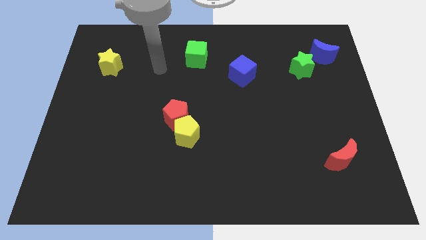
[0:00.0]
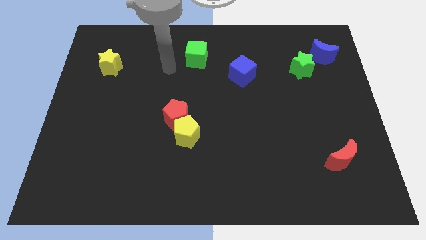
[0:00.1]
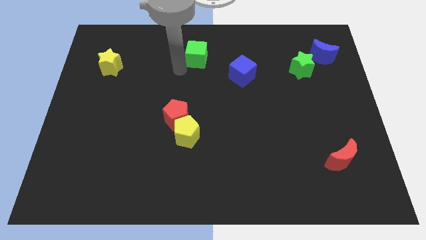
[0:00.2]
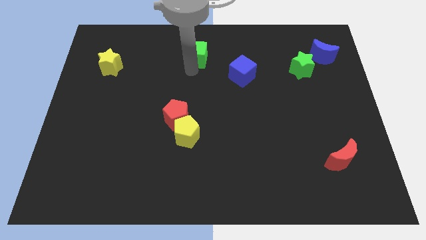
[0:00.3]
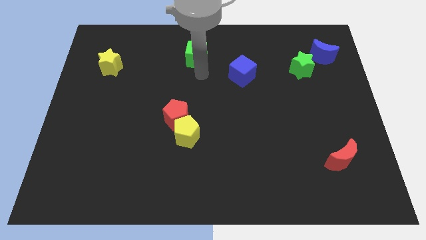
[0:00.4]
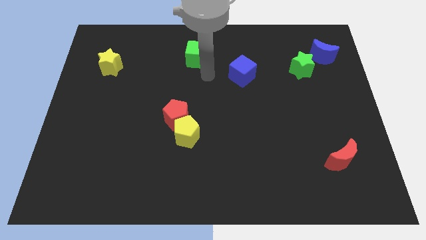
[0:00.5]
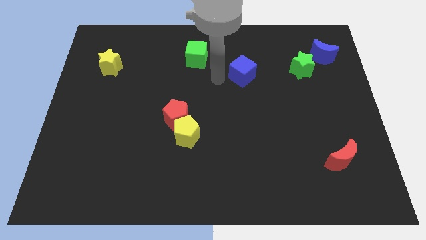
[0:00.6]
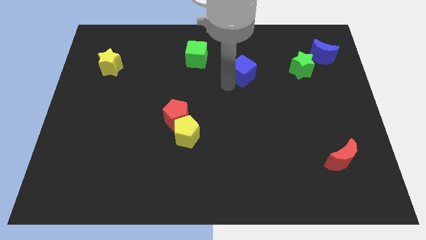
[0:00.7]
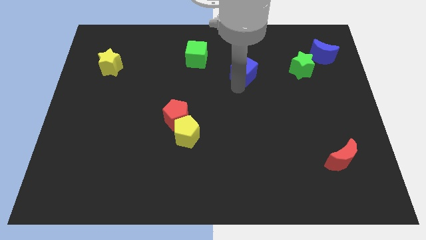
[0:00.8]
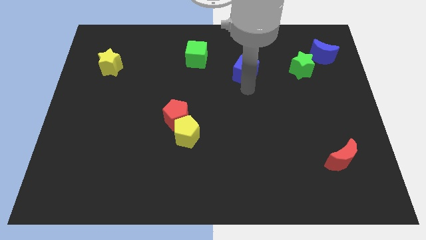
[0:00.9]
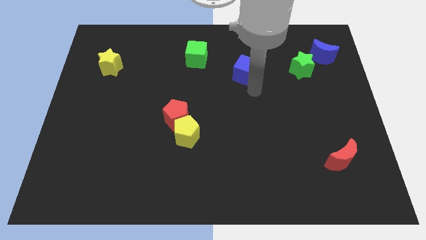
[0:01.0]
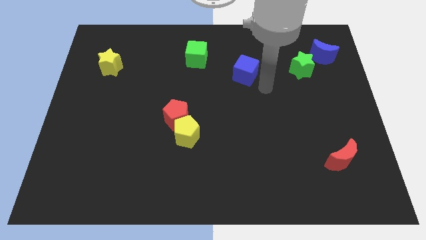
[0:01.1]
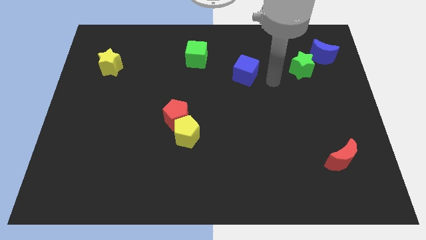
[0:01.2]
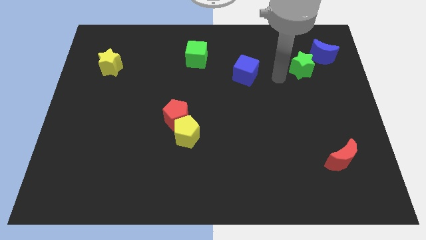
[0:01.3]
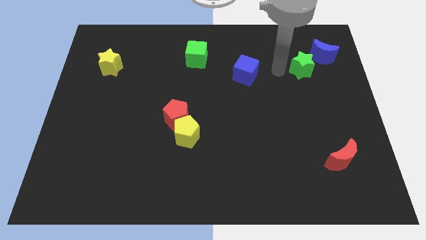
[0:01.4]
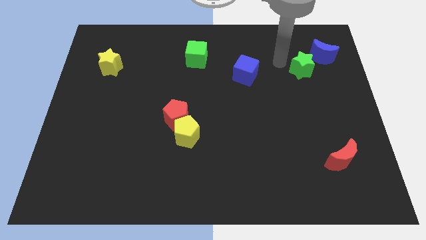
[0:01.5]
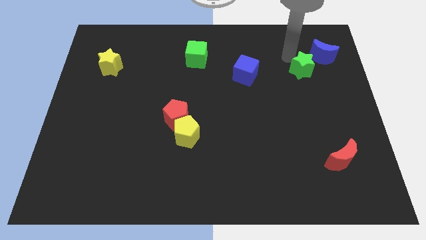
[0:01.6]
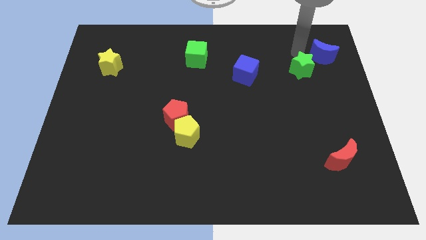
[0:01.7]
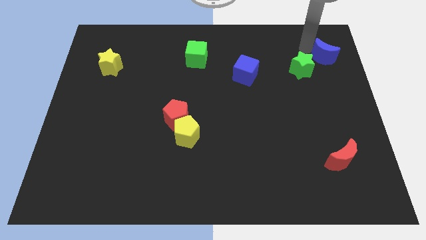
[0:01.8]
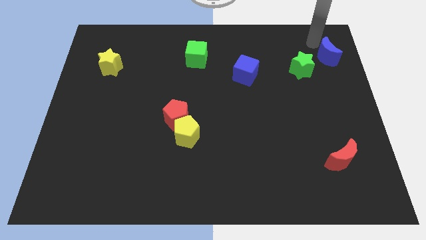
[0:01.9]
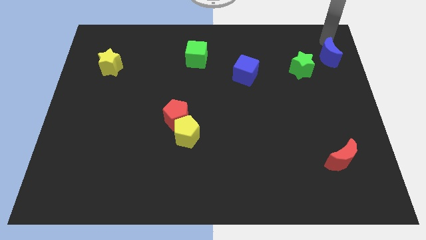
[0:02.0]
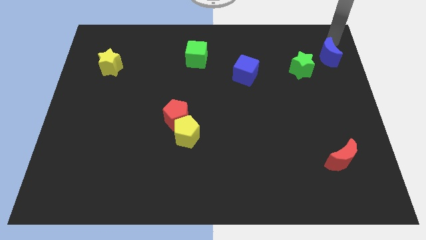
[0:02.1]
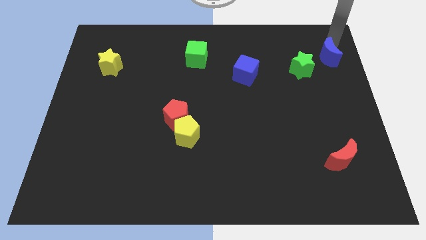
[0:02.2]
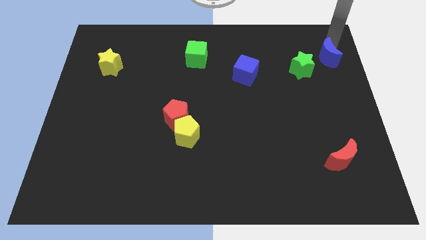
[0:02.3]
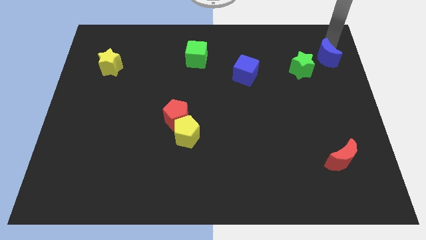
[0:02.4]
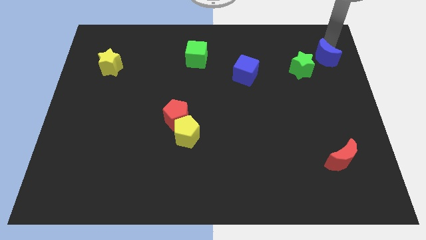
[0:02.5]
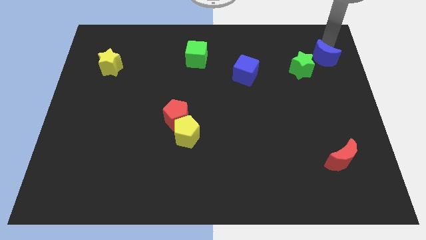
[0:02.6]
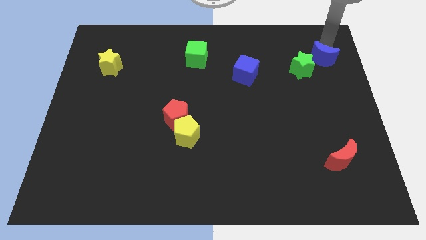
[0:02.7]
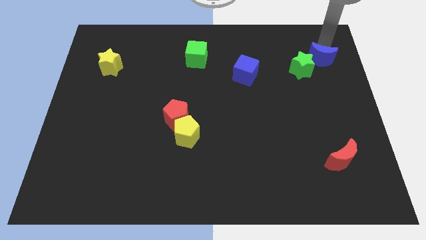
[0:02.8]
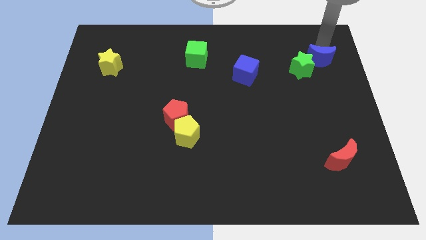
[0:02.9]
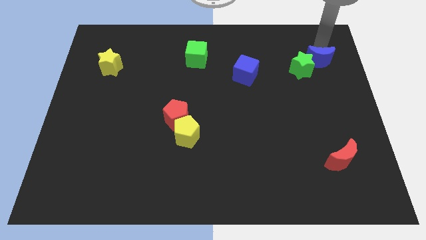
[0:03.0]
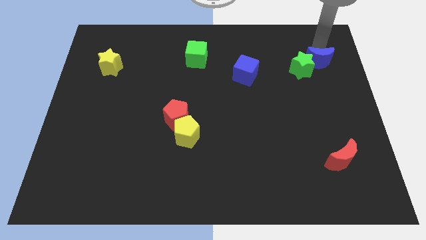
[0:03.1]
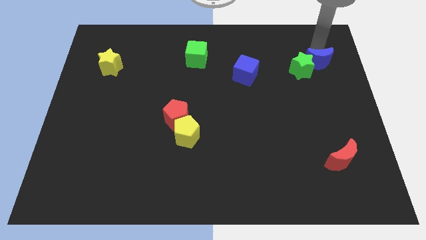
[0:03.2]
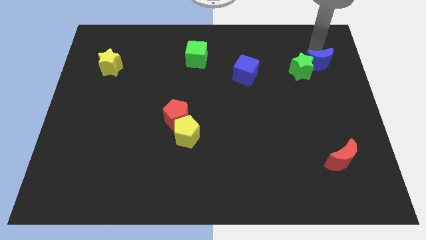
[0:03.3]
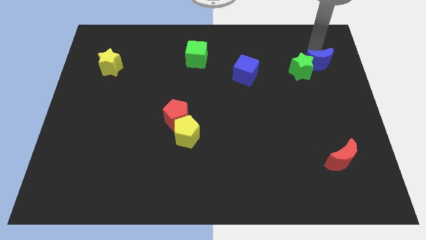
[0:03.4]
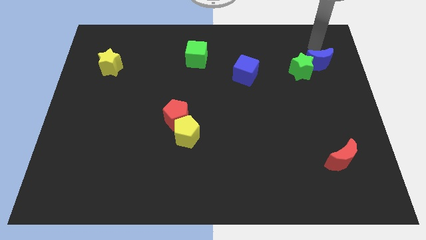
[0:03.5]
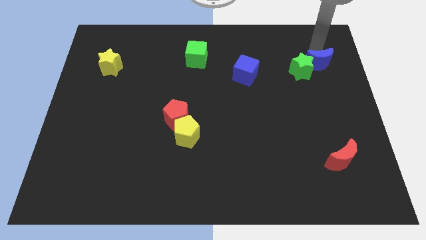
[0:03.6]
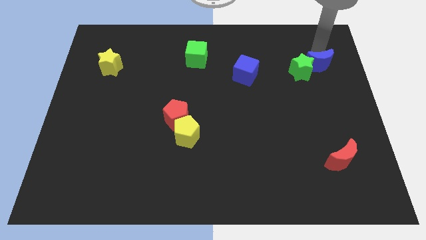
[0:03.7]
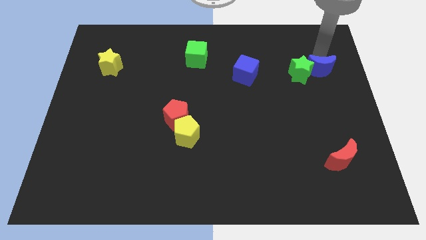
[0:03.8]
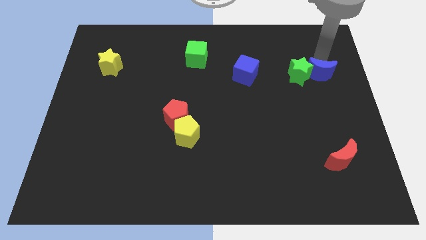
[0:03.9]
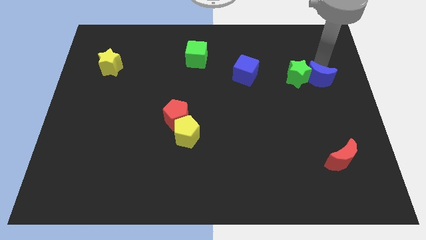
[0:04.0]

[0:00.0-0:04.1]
move the blue moon down slightly

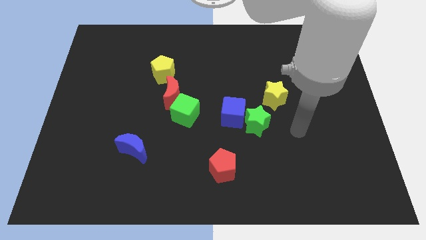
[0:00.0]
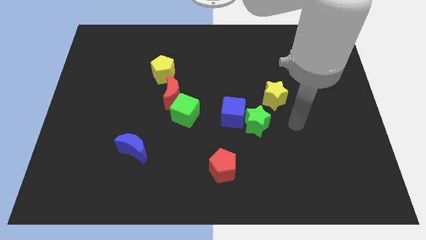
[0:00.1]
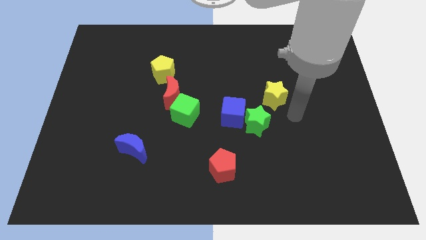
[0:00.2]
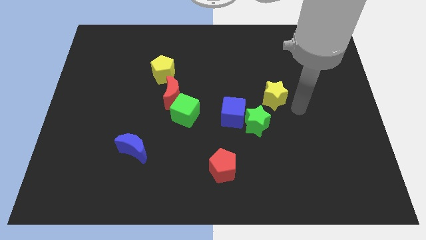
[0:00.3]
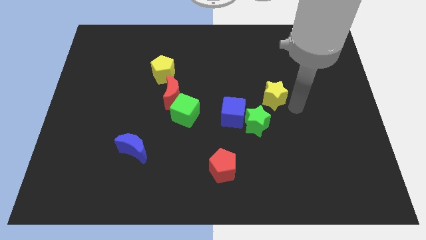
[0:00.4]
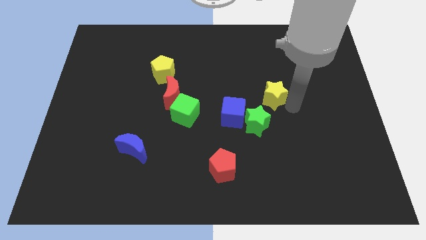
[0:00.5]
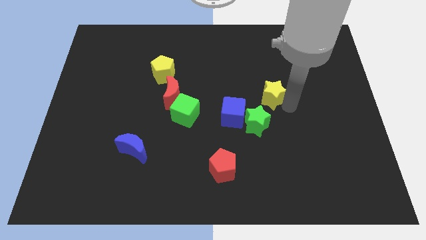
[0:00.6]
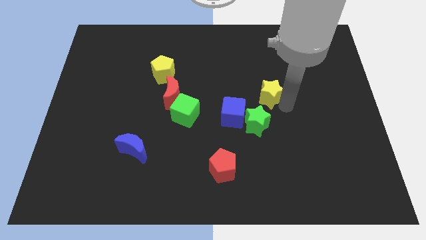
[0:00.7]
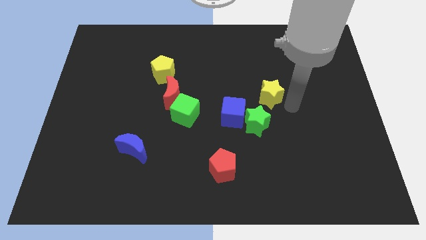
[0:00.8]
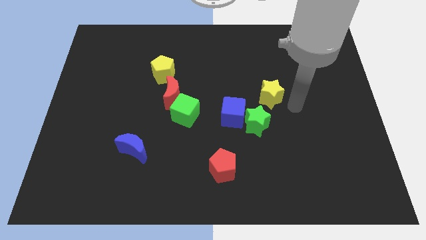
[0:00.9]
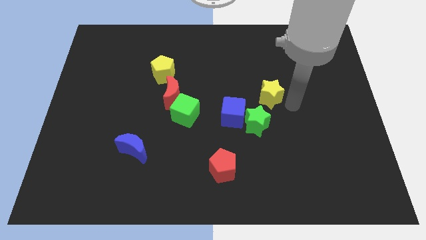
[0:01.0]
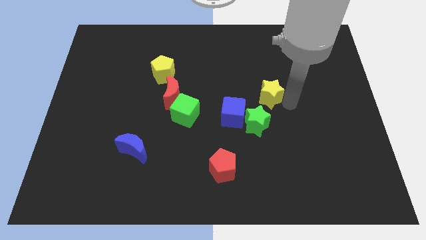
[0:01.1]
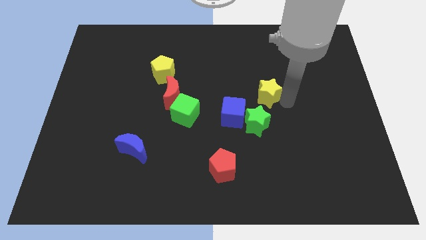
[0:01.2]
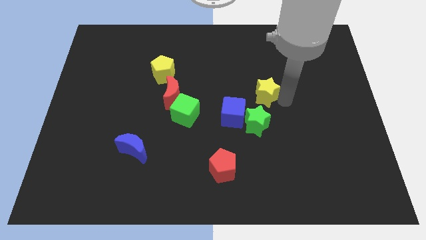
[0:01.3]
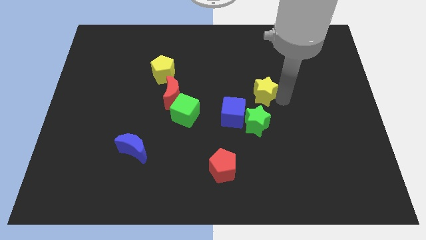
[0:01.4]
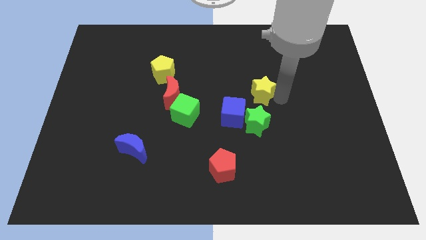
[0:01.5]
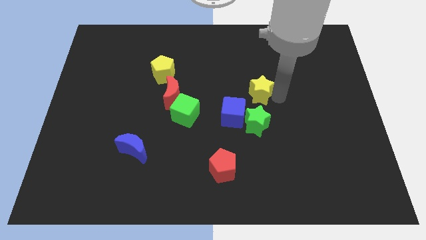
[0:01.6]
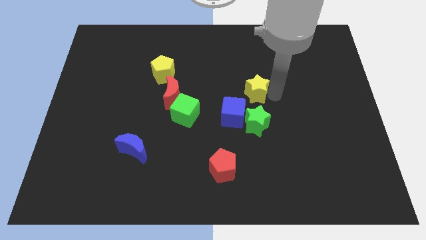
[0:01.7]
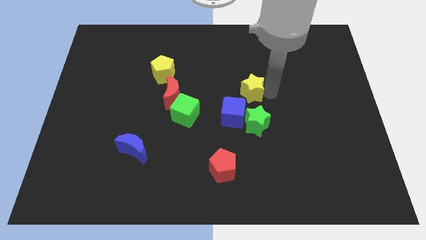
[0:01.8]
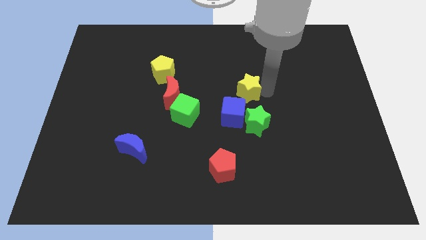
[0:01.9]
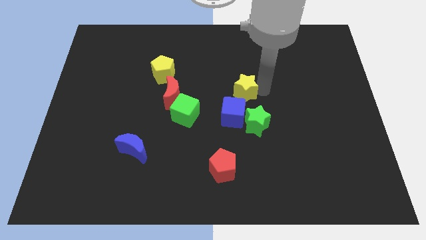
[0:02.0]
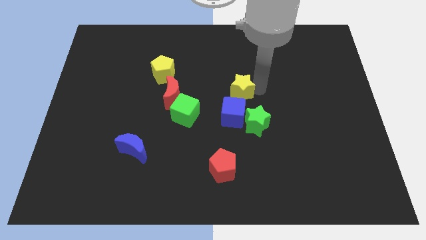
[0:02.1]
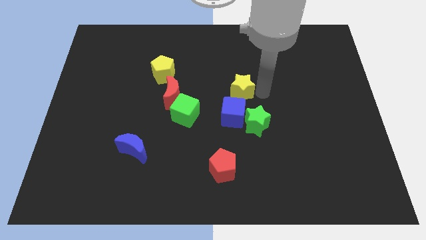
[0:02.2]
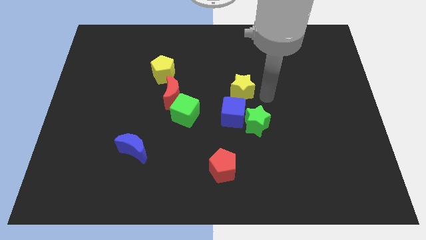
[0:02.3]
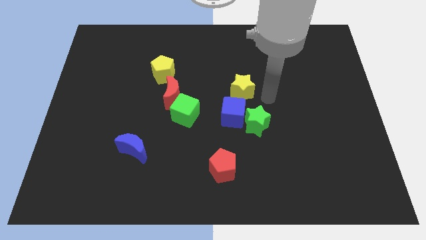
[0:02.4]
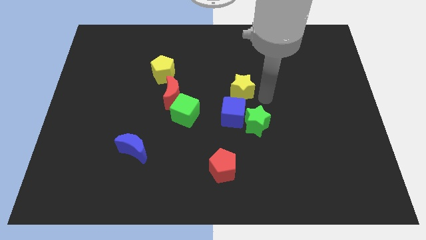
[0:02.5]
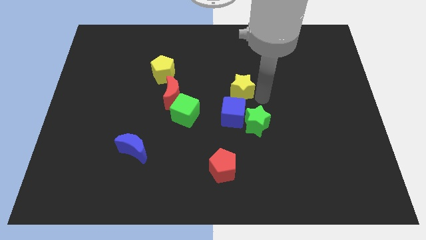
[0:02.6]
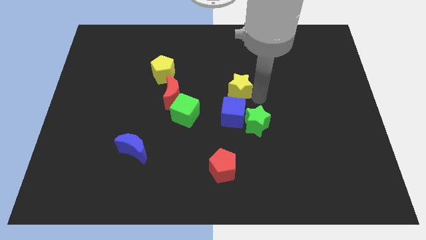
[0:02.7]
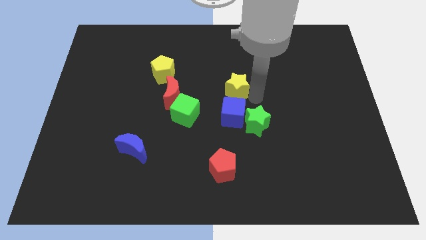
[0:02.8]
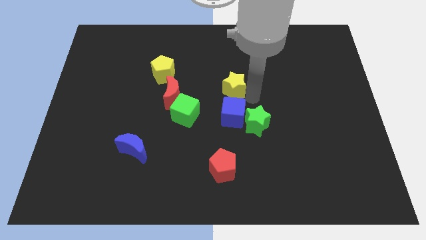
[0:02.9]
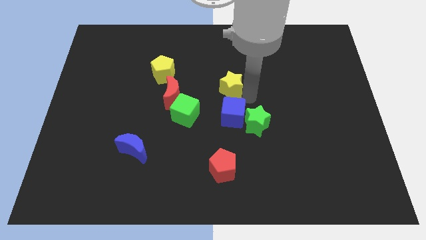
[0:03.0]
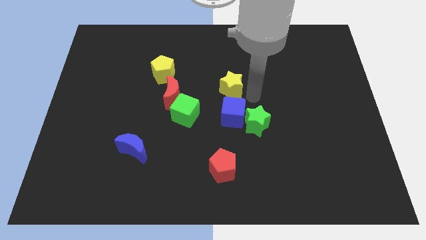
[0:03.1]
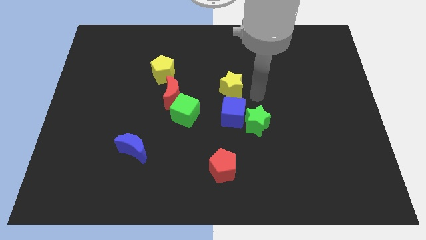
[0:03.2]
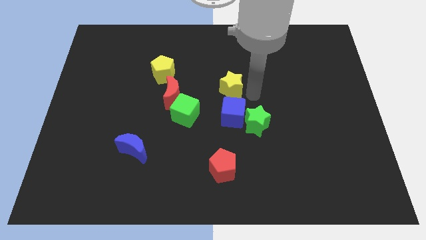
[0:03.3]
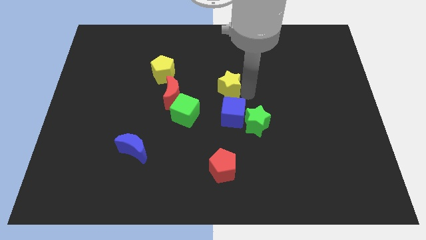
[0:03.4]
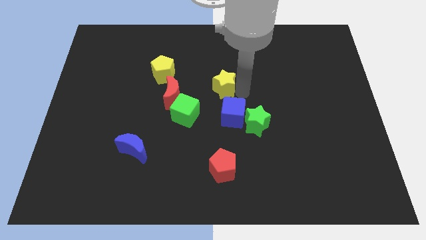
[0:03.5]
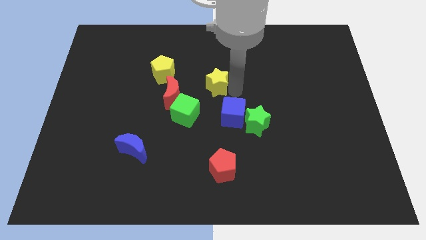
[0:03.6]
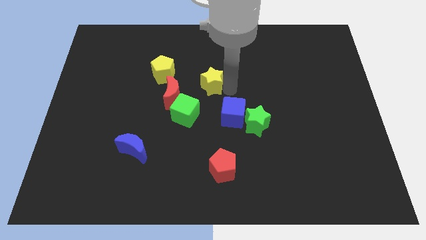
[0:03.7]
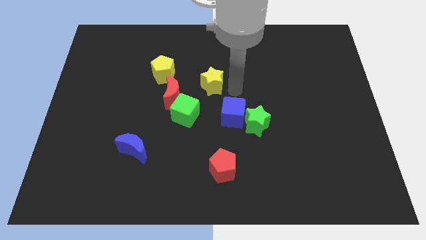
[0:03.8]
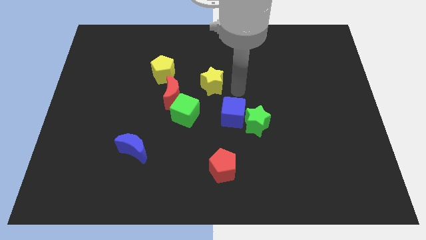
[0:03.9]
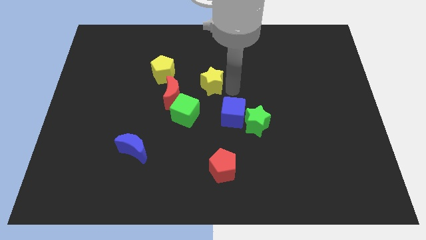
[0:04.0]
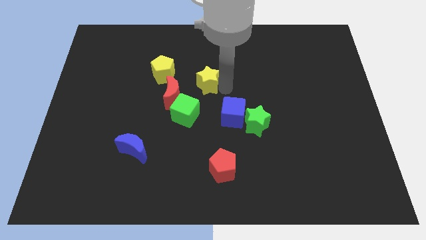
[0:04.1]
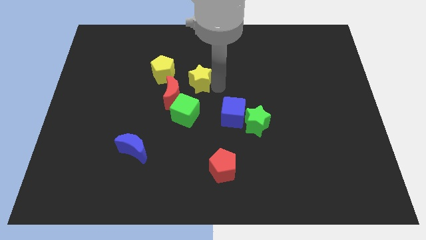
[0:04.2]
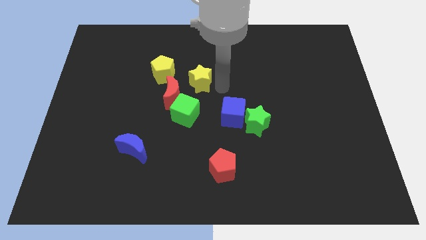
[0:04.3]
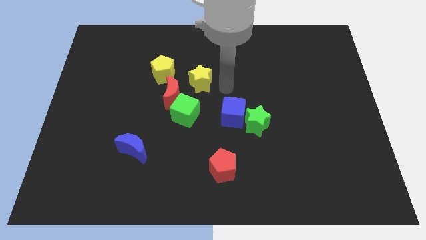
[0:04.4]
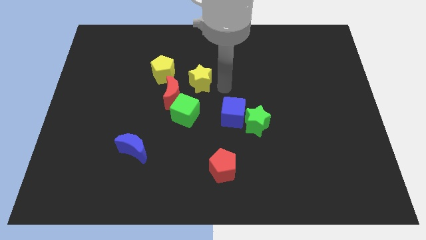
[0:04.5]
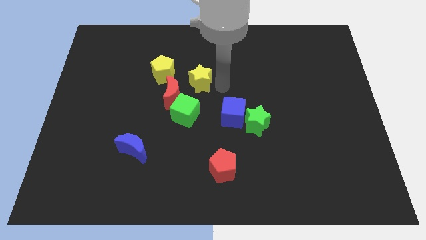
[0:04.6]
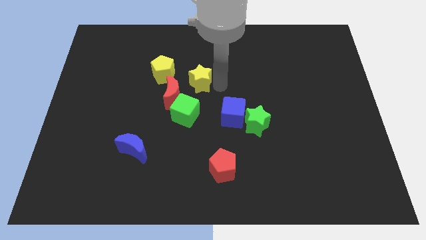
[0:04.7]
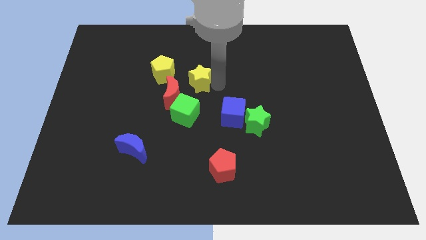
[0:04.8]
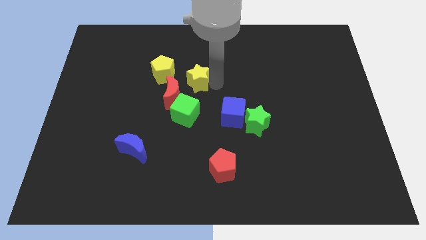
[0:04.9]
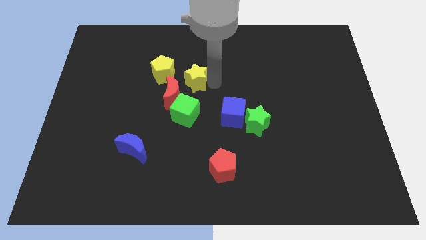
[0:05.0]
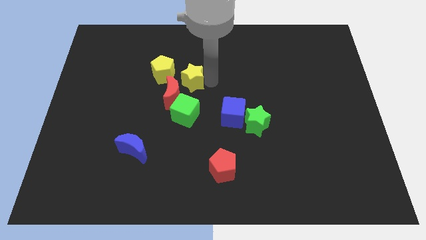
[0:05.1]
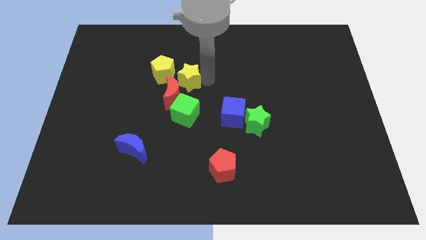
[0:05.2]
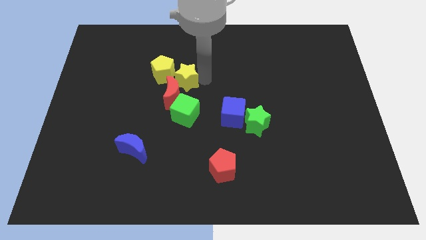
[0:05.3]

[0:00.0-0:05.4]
push the yellow star to the left
